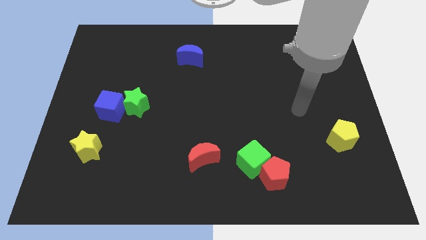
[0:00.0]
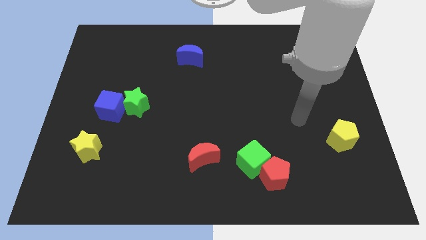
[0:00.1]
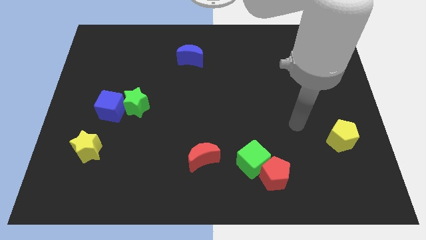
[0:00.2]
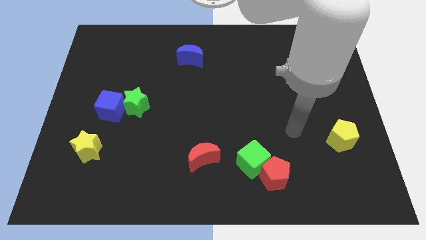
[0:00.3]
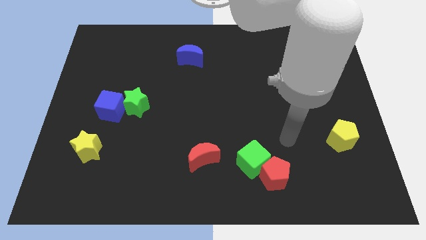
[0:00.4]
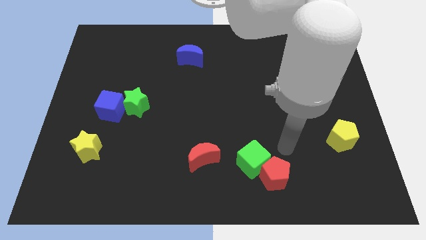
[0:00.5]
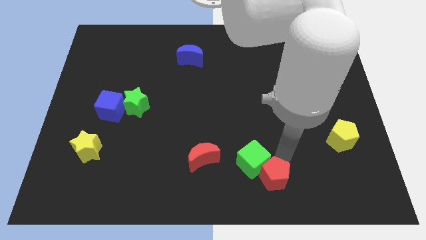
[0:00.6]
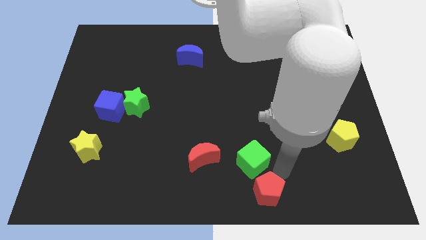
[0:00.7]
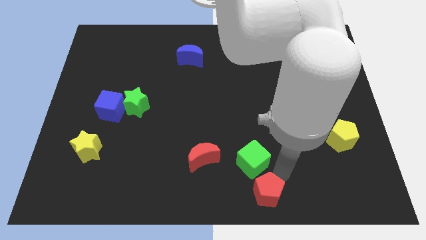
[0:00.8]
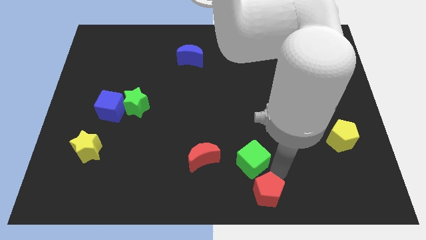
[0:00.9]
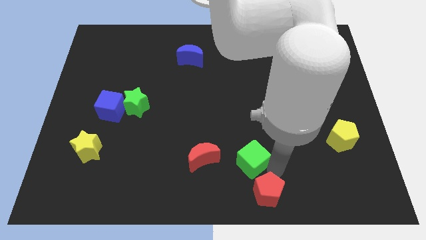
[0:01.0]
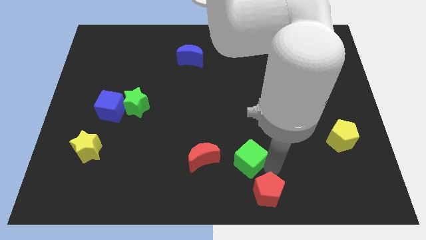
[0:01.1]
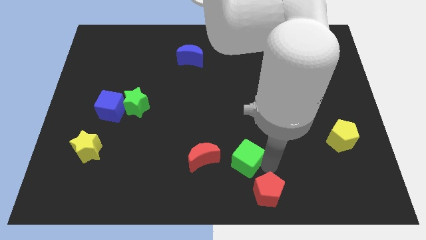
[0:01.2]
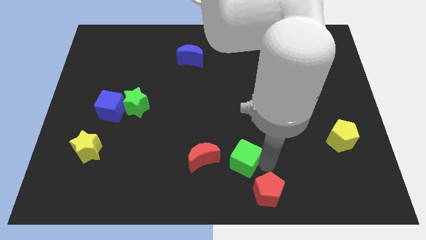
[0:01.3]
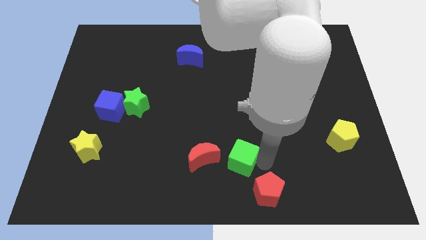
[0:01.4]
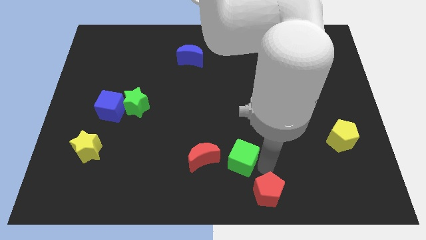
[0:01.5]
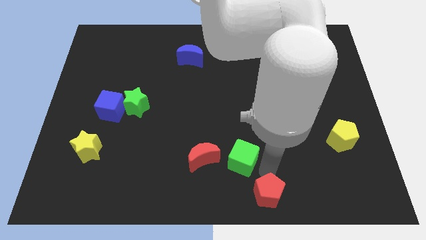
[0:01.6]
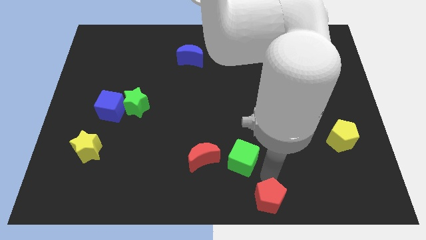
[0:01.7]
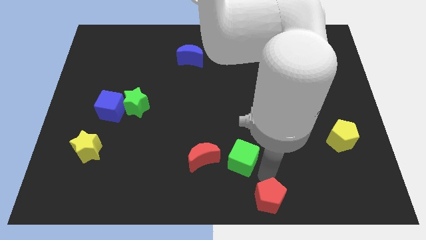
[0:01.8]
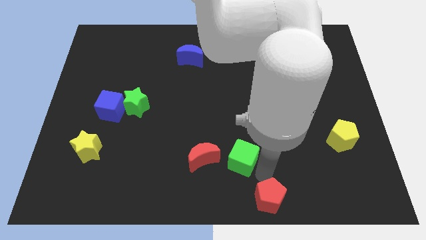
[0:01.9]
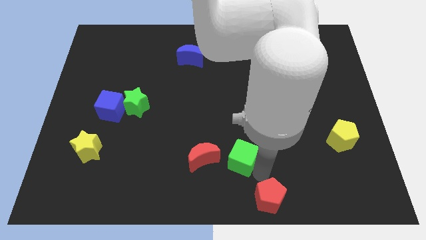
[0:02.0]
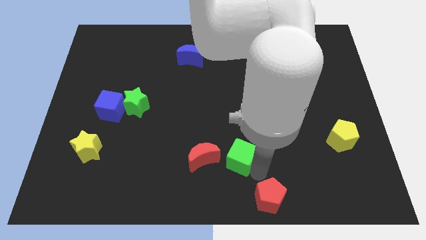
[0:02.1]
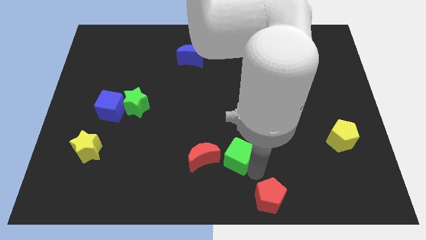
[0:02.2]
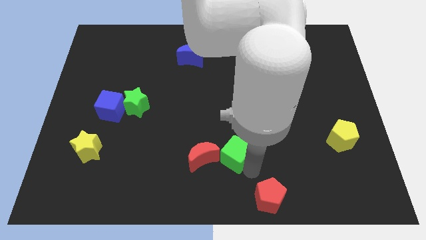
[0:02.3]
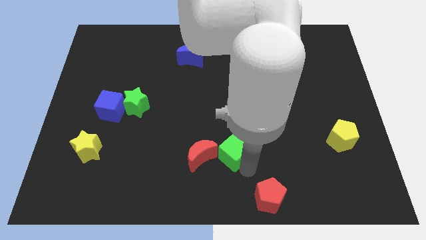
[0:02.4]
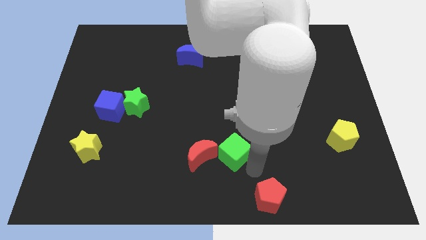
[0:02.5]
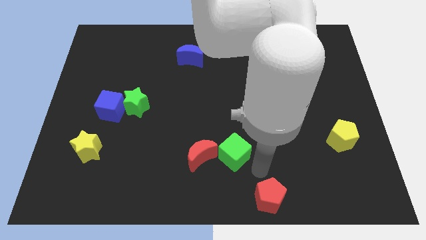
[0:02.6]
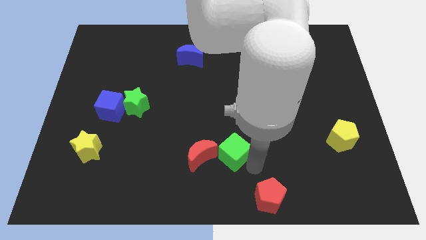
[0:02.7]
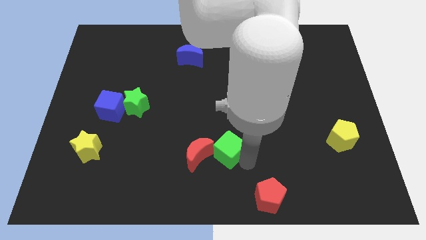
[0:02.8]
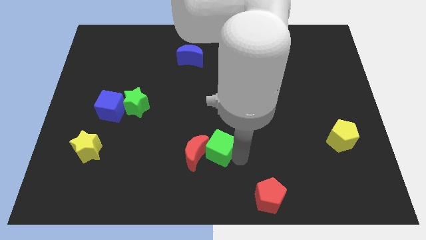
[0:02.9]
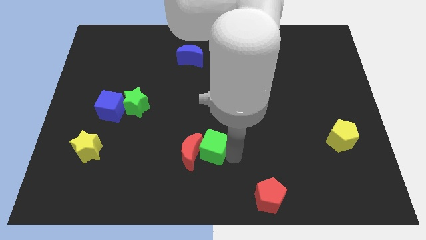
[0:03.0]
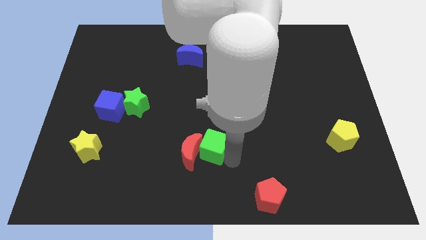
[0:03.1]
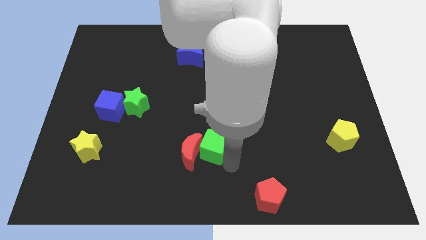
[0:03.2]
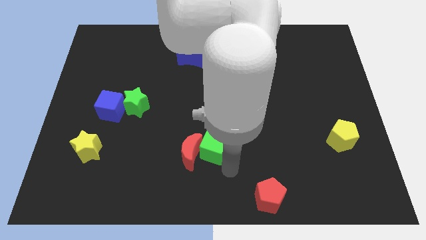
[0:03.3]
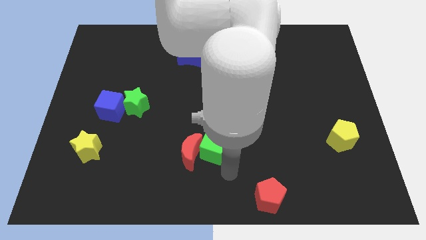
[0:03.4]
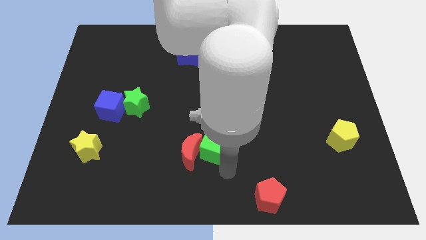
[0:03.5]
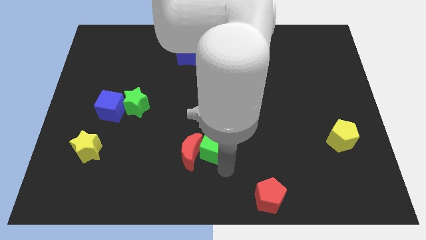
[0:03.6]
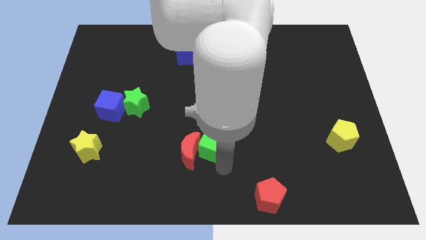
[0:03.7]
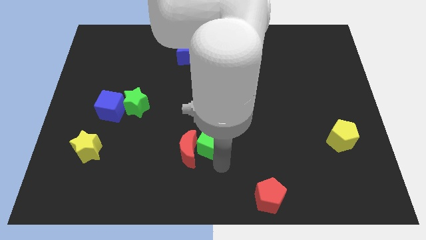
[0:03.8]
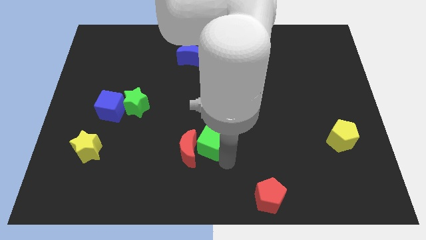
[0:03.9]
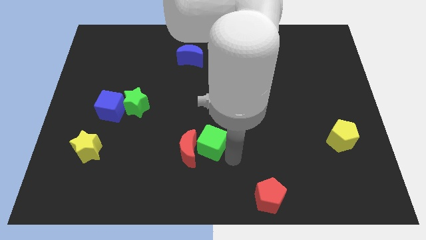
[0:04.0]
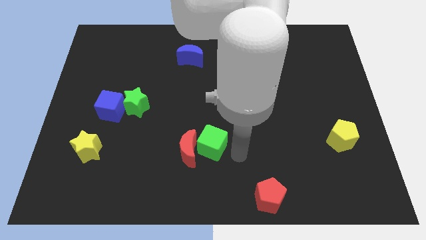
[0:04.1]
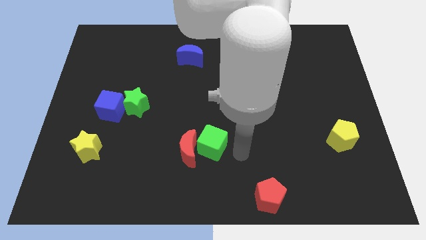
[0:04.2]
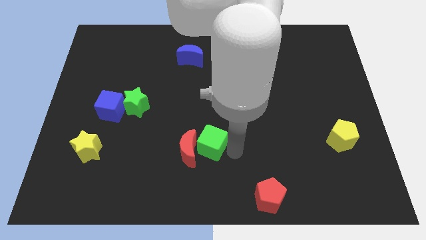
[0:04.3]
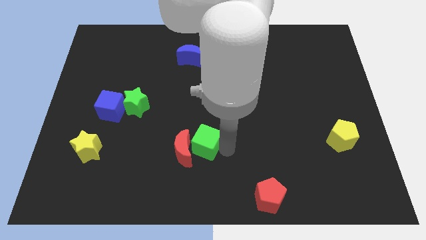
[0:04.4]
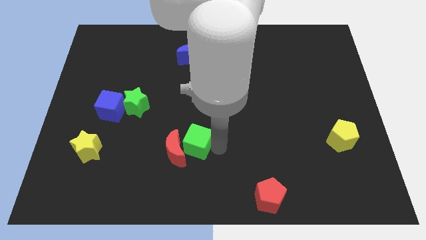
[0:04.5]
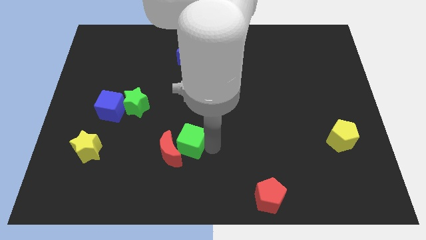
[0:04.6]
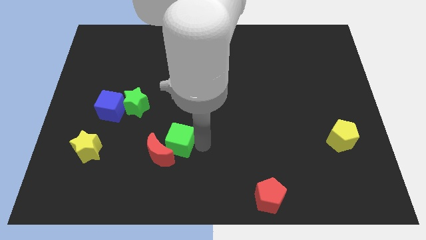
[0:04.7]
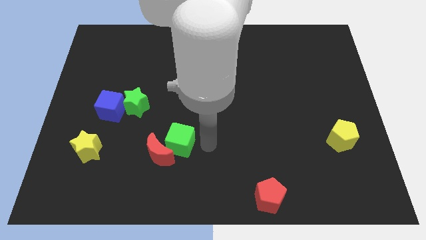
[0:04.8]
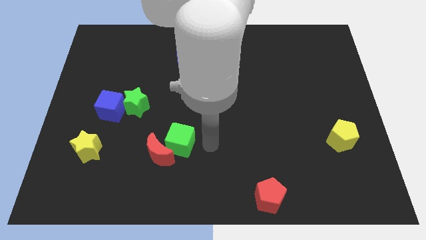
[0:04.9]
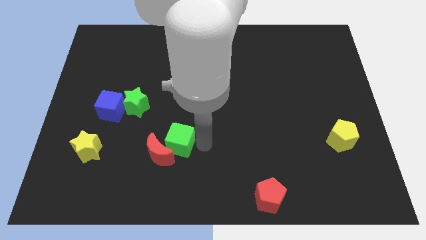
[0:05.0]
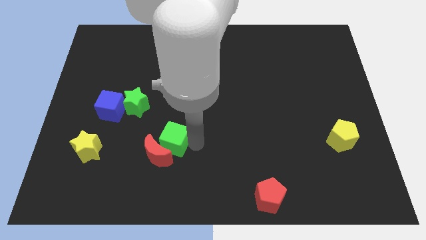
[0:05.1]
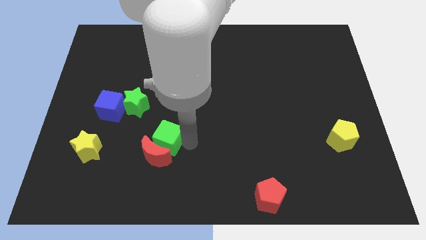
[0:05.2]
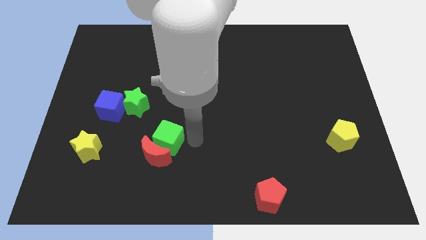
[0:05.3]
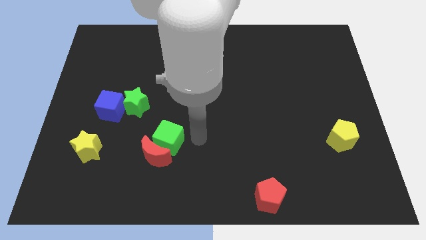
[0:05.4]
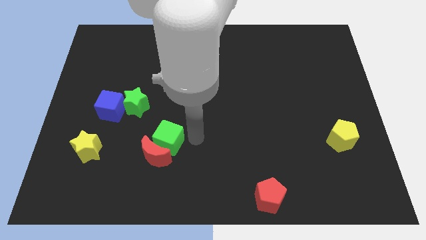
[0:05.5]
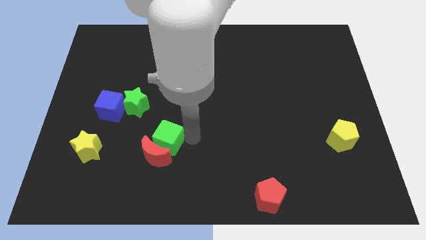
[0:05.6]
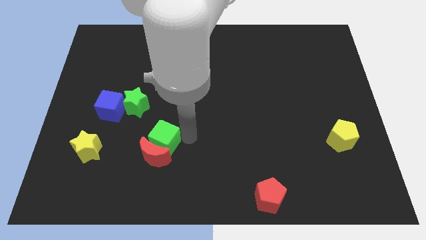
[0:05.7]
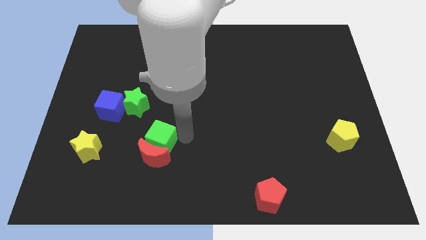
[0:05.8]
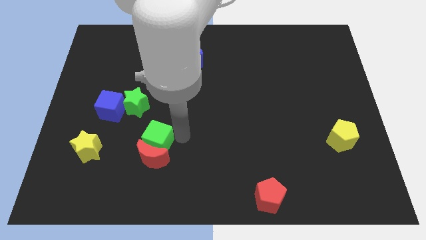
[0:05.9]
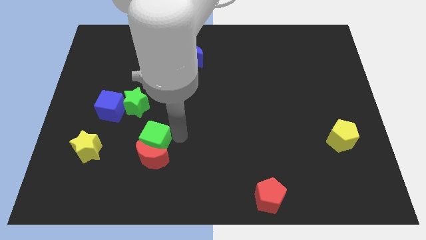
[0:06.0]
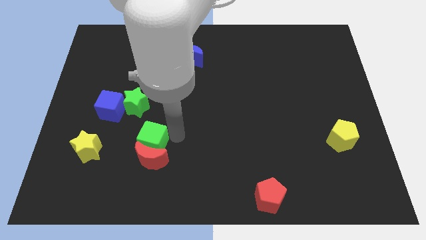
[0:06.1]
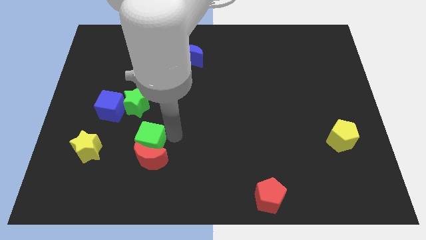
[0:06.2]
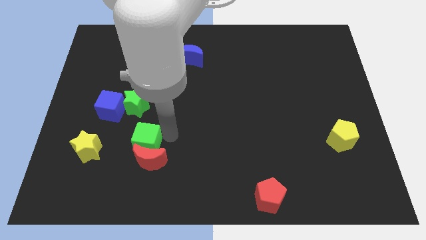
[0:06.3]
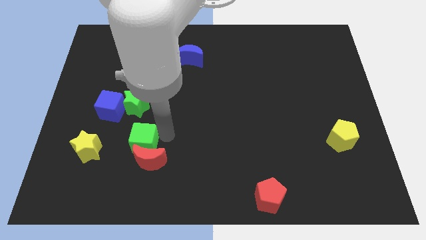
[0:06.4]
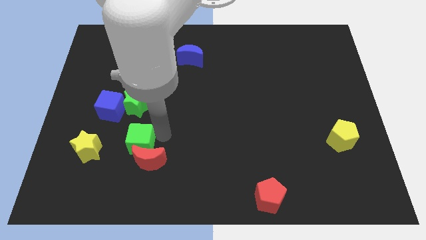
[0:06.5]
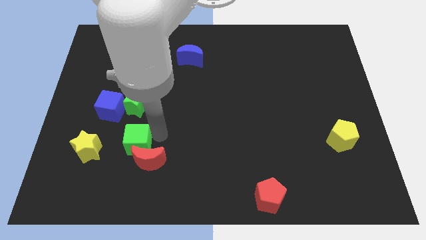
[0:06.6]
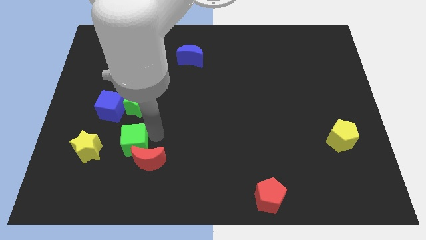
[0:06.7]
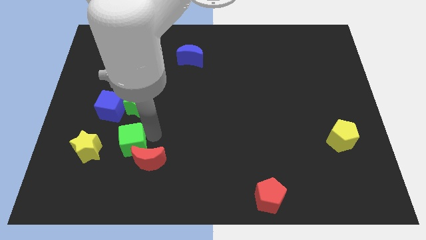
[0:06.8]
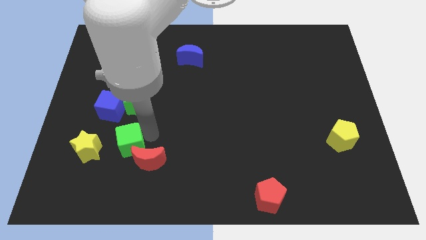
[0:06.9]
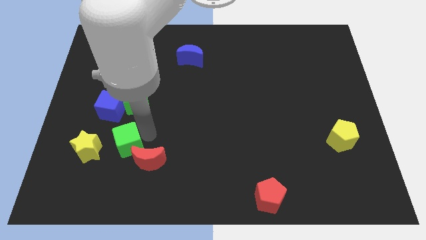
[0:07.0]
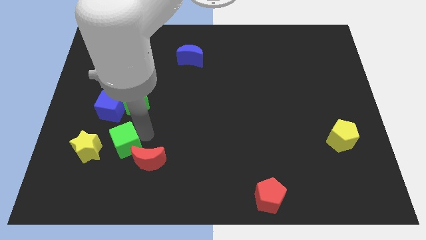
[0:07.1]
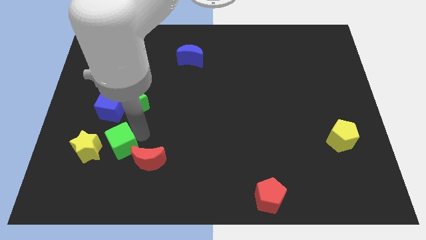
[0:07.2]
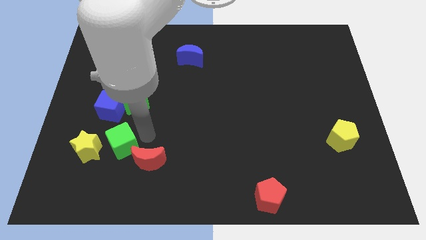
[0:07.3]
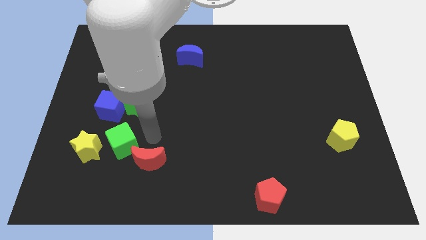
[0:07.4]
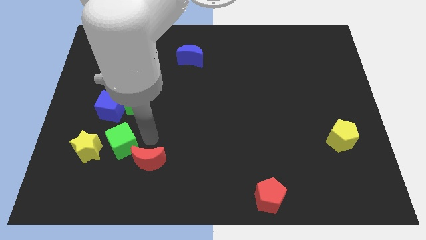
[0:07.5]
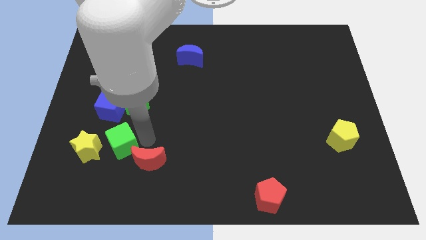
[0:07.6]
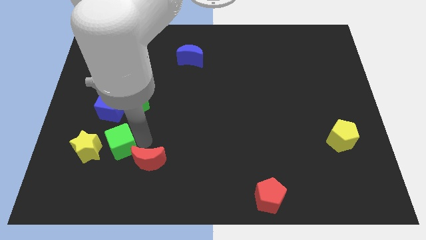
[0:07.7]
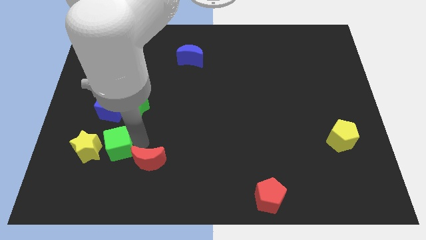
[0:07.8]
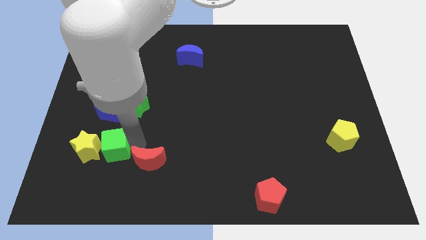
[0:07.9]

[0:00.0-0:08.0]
slide the green cube towards the yellow star
